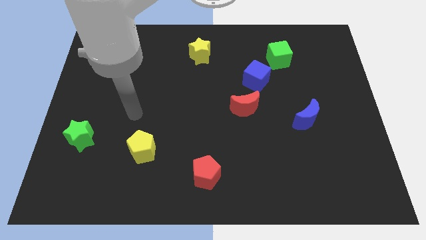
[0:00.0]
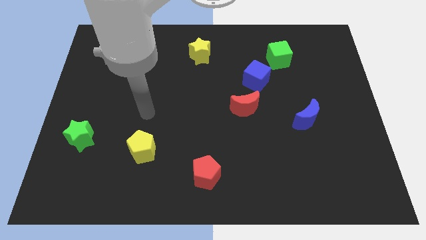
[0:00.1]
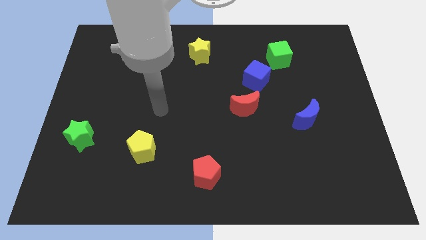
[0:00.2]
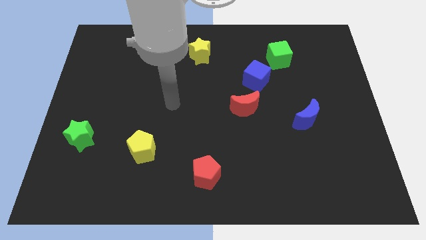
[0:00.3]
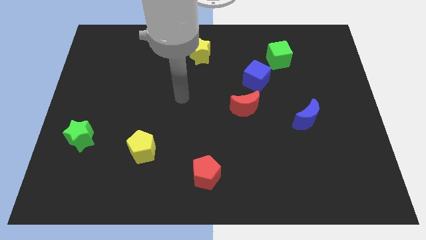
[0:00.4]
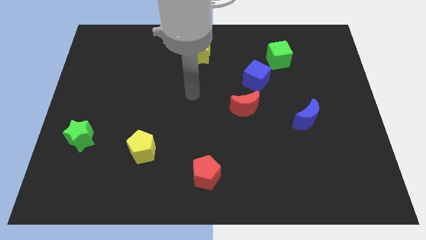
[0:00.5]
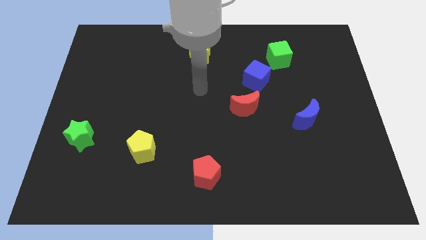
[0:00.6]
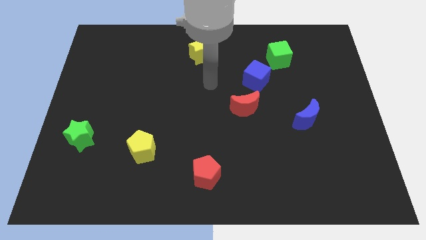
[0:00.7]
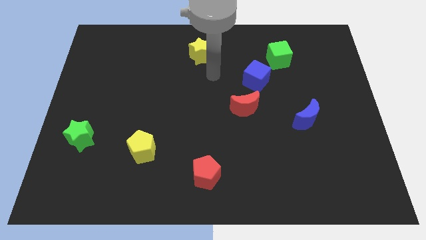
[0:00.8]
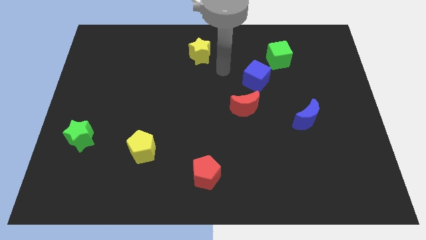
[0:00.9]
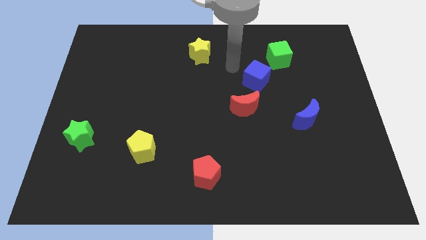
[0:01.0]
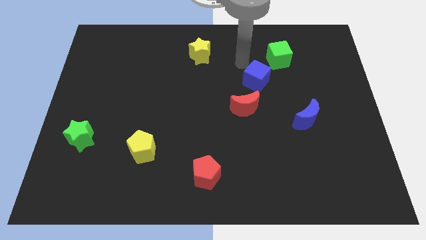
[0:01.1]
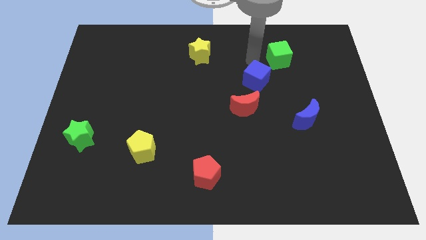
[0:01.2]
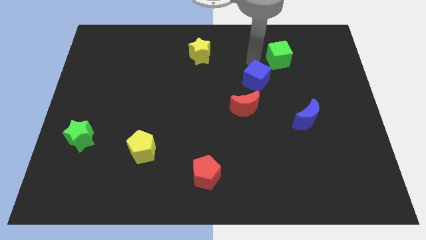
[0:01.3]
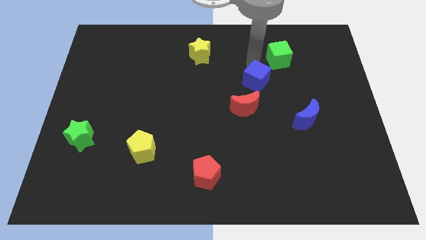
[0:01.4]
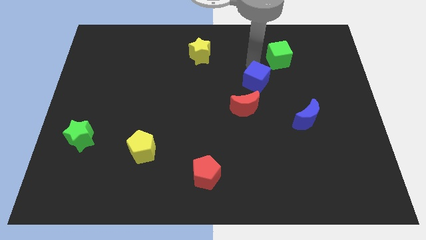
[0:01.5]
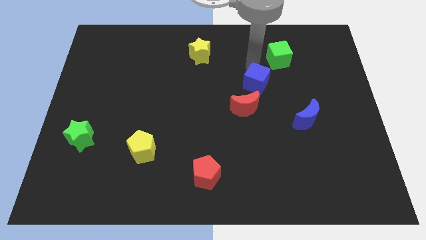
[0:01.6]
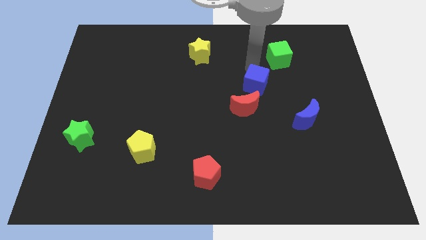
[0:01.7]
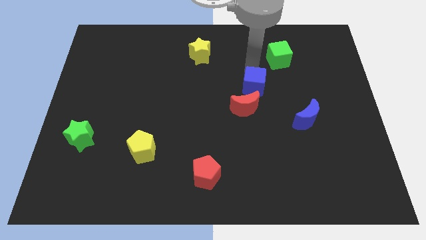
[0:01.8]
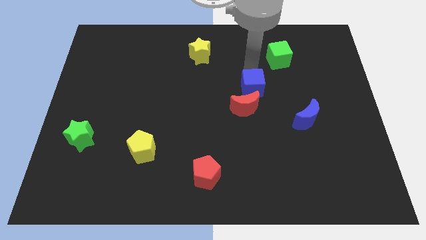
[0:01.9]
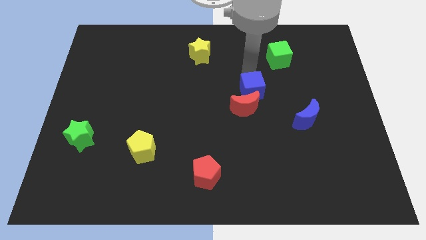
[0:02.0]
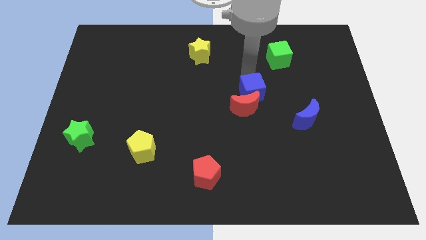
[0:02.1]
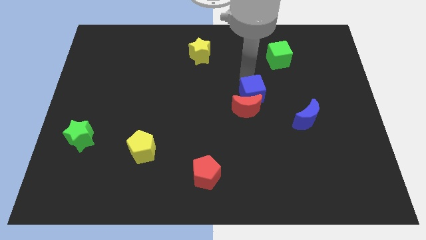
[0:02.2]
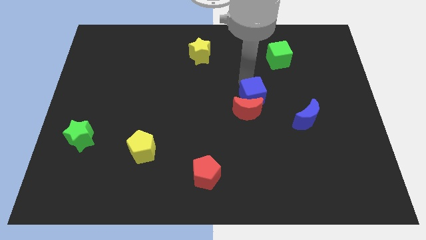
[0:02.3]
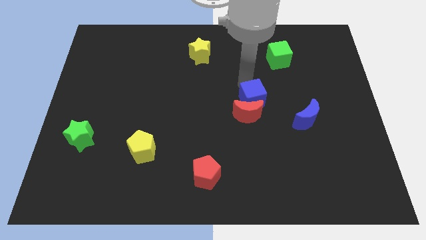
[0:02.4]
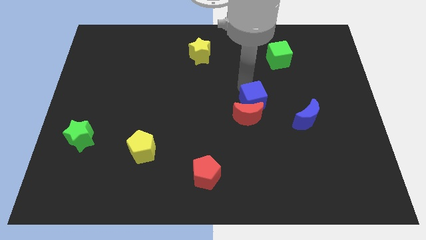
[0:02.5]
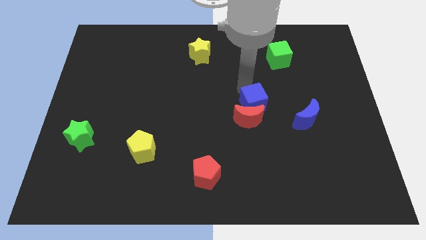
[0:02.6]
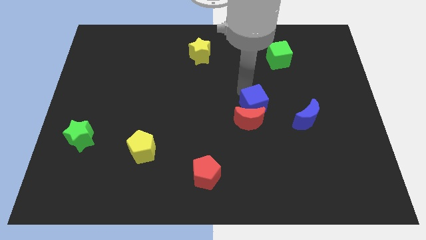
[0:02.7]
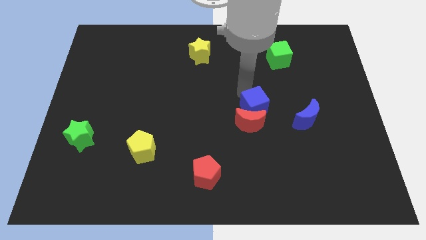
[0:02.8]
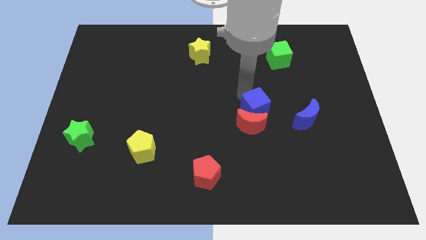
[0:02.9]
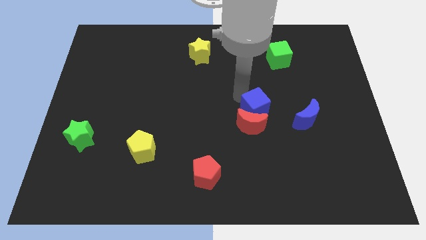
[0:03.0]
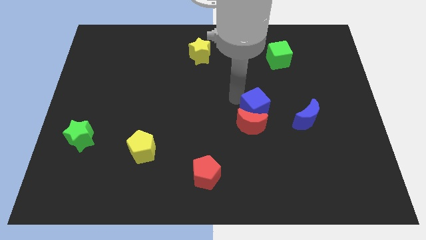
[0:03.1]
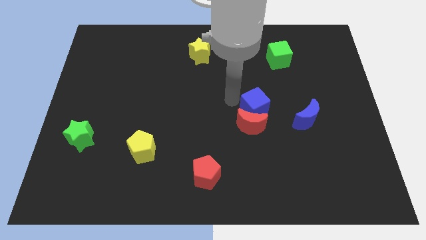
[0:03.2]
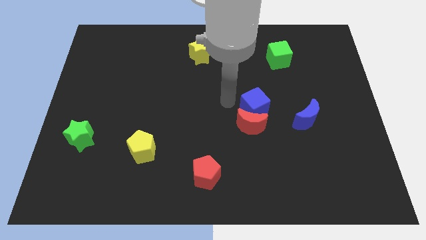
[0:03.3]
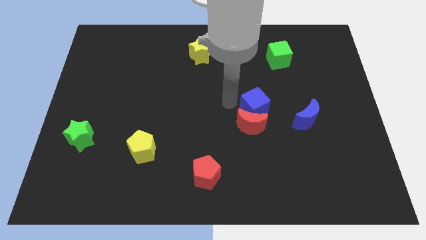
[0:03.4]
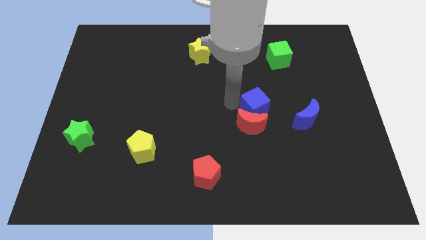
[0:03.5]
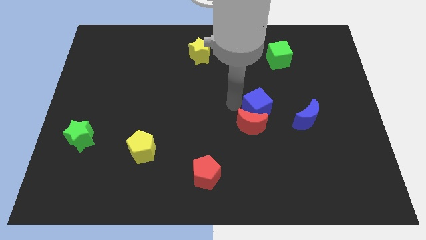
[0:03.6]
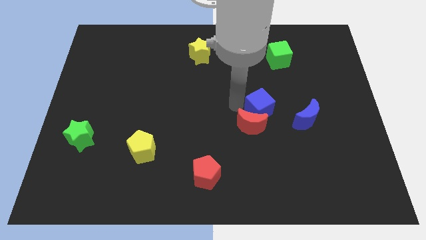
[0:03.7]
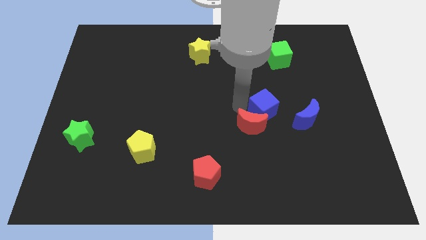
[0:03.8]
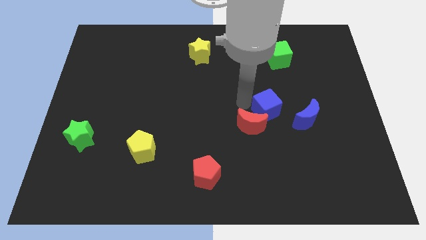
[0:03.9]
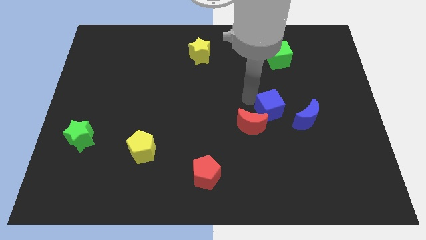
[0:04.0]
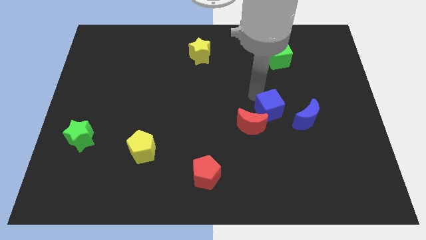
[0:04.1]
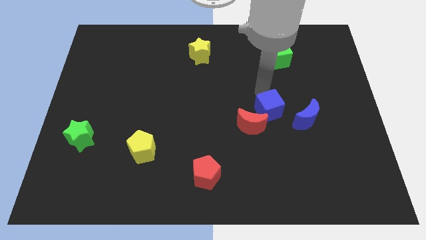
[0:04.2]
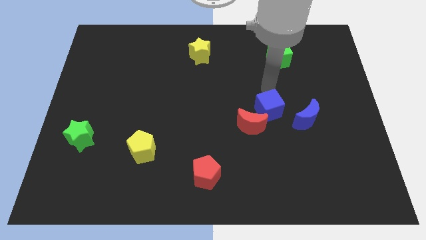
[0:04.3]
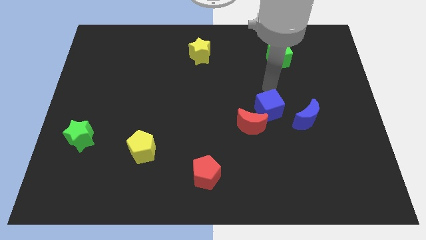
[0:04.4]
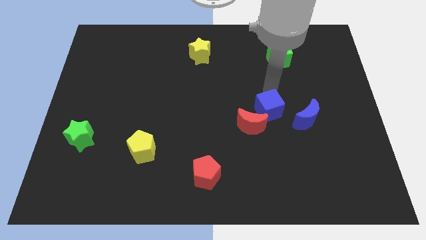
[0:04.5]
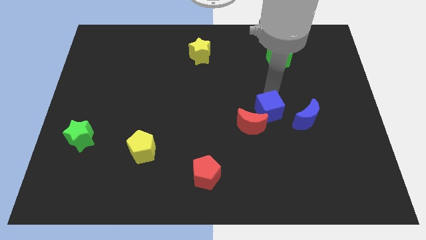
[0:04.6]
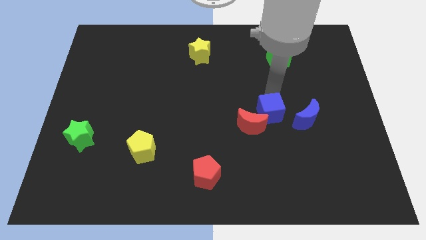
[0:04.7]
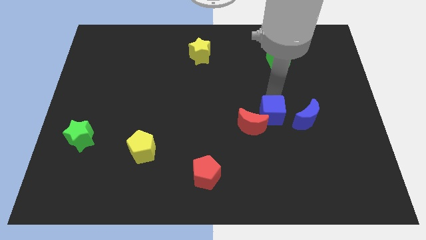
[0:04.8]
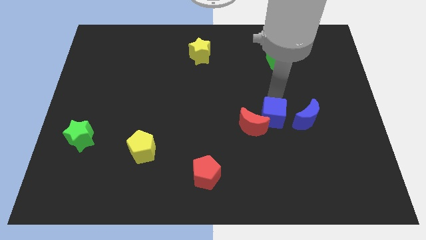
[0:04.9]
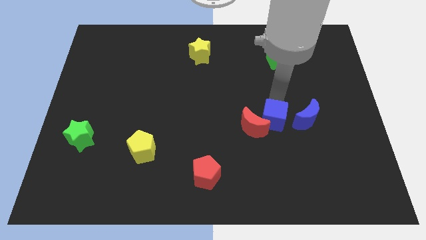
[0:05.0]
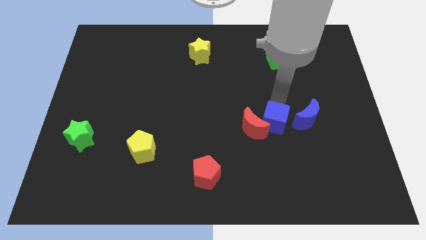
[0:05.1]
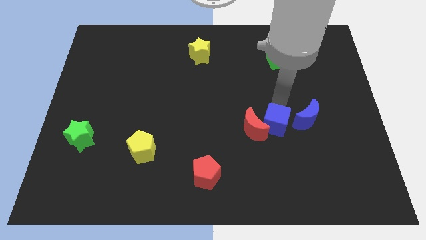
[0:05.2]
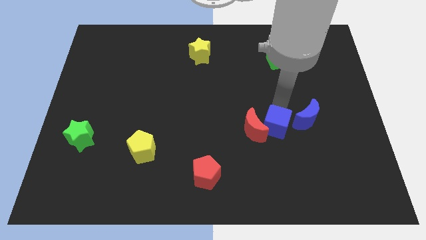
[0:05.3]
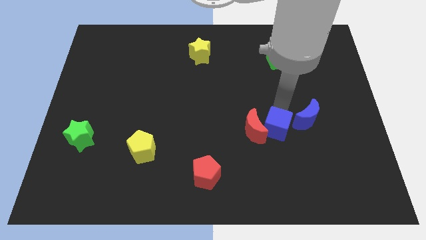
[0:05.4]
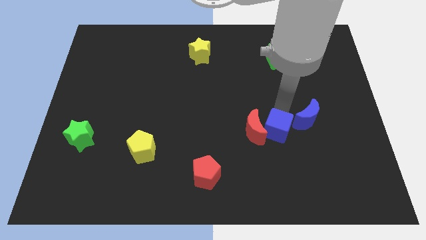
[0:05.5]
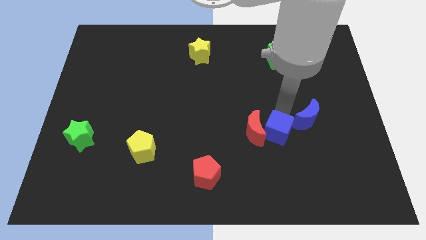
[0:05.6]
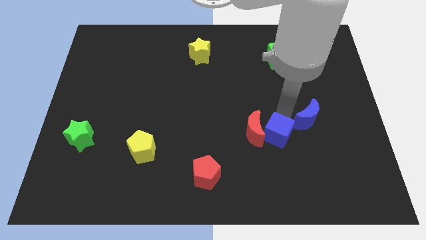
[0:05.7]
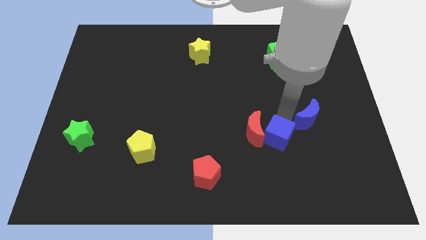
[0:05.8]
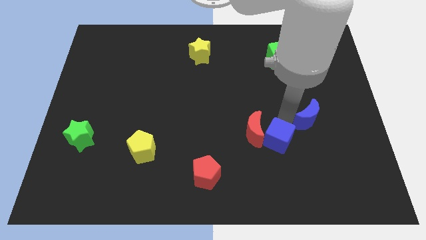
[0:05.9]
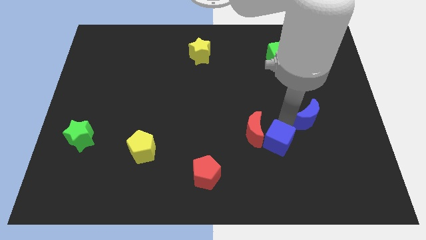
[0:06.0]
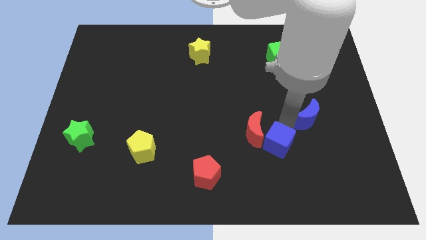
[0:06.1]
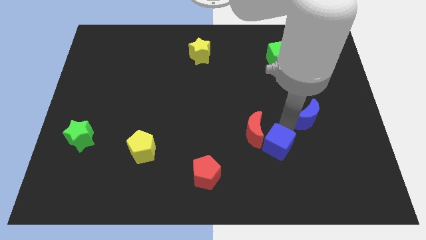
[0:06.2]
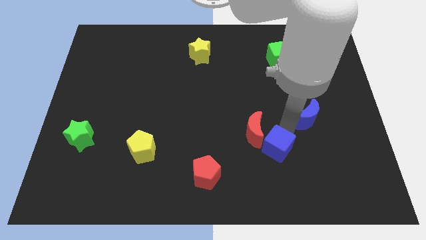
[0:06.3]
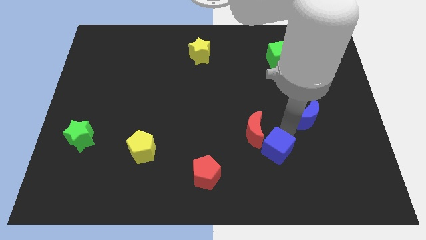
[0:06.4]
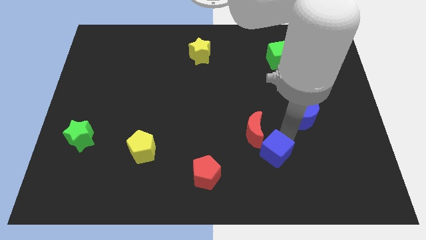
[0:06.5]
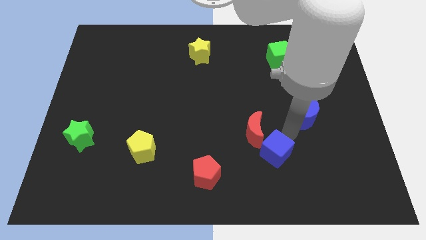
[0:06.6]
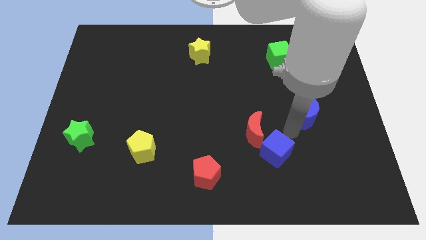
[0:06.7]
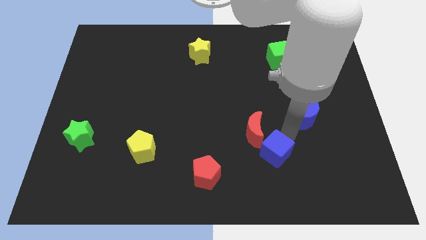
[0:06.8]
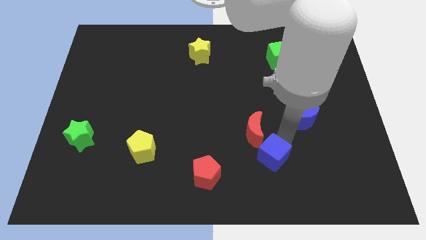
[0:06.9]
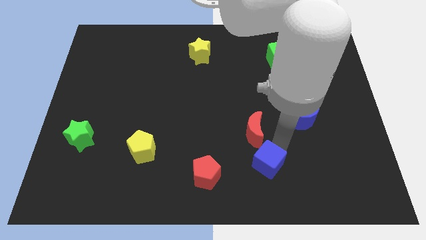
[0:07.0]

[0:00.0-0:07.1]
move the blue cube to the right side of the red pentagon
